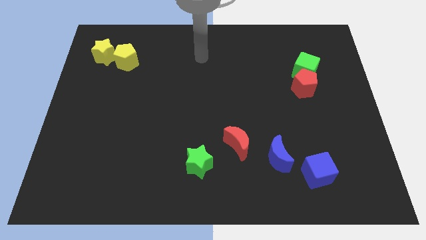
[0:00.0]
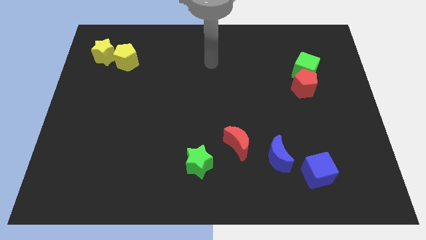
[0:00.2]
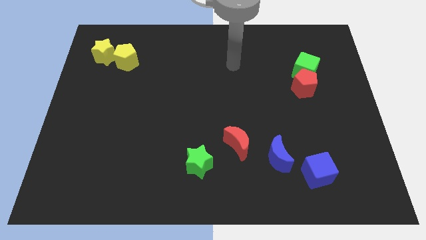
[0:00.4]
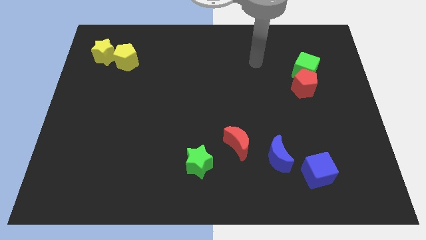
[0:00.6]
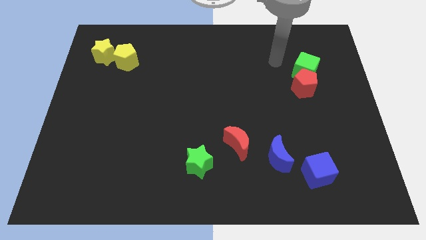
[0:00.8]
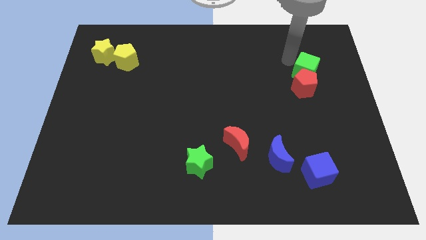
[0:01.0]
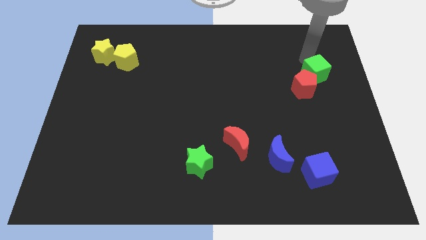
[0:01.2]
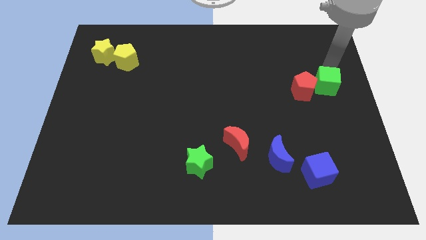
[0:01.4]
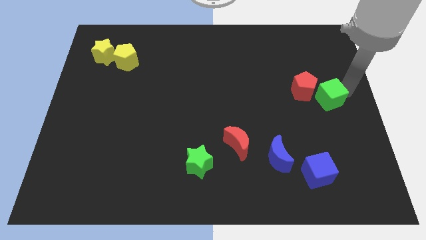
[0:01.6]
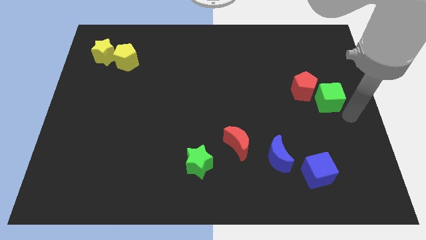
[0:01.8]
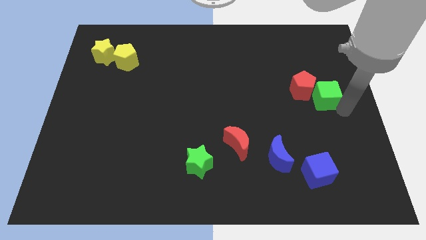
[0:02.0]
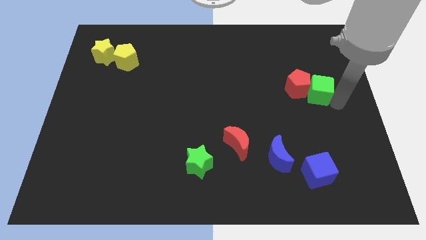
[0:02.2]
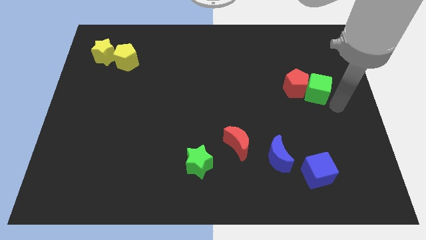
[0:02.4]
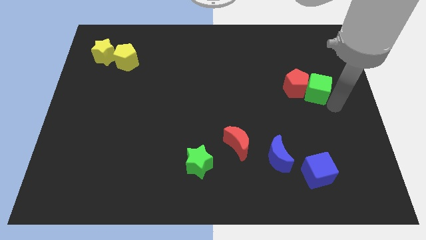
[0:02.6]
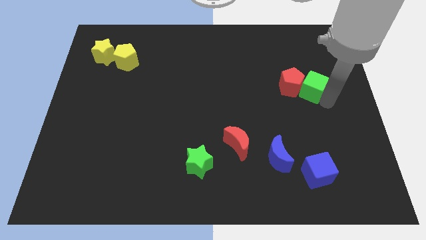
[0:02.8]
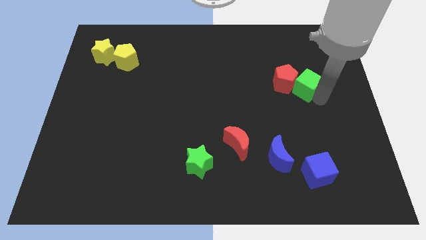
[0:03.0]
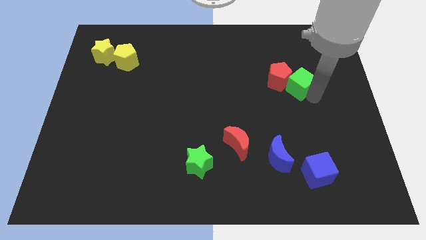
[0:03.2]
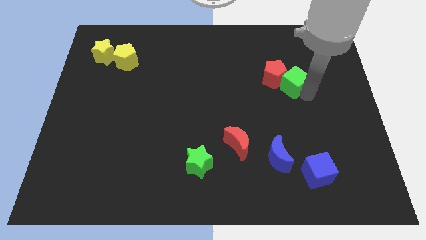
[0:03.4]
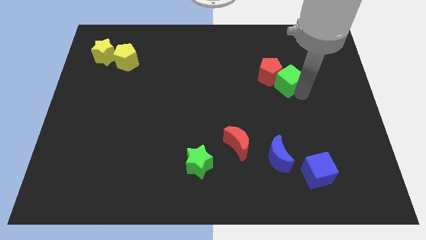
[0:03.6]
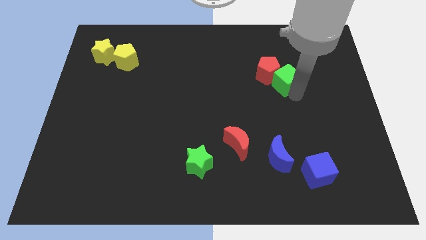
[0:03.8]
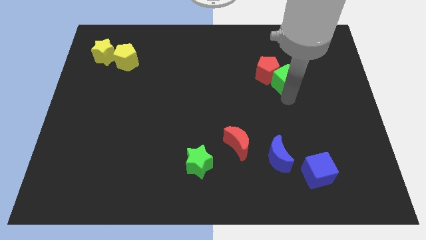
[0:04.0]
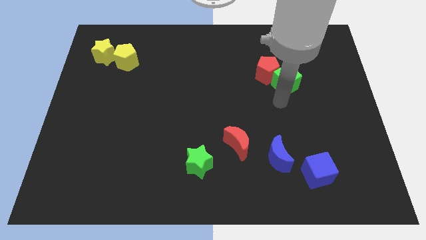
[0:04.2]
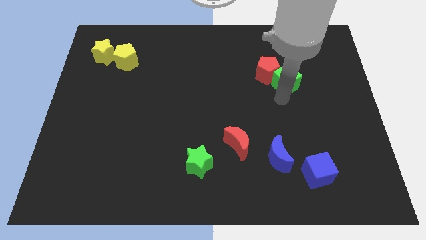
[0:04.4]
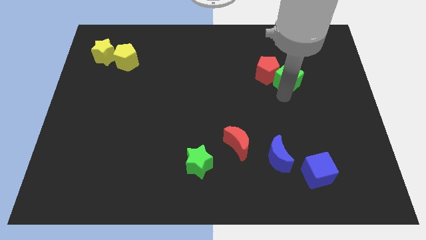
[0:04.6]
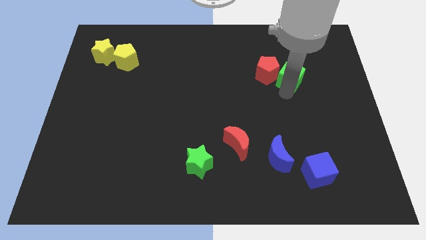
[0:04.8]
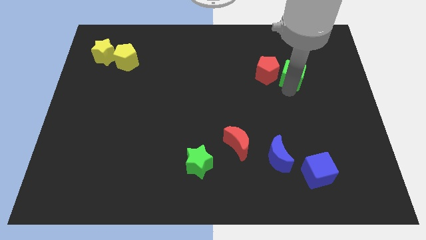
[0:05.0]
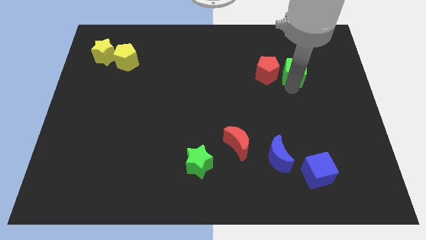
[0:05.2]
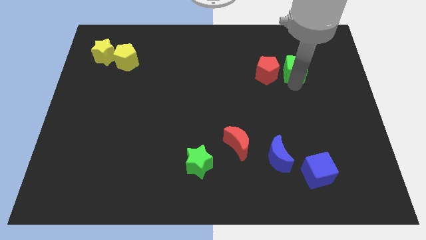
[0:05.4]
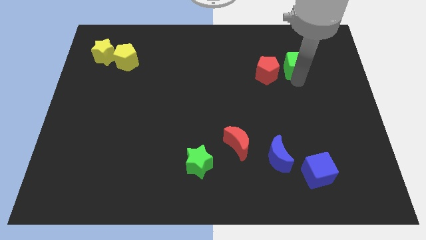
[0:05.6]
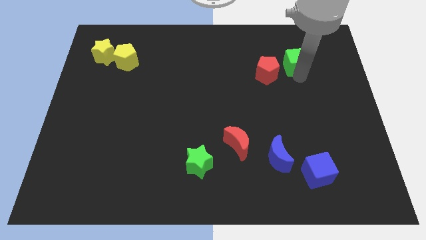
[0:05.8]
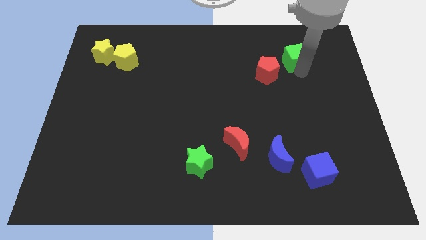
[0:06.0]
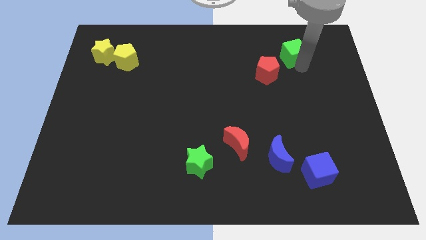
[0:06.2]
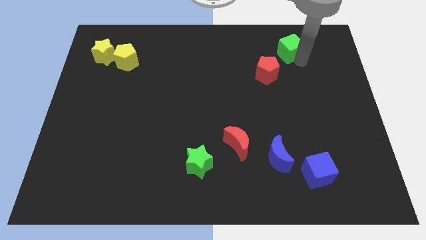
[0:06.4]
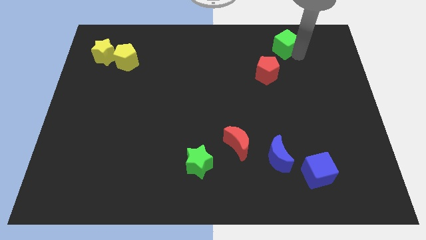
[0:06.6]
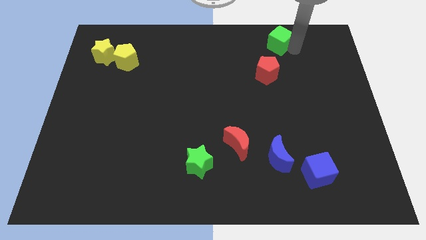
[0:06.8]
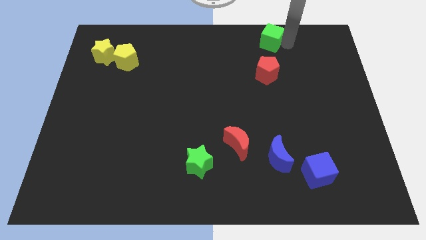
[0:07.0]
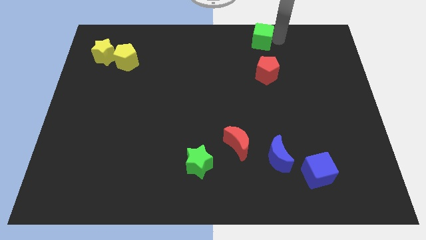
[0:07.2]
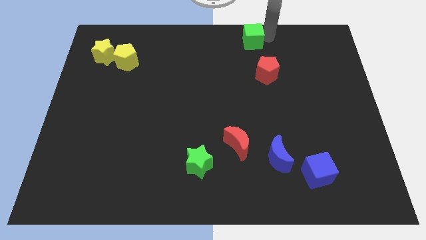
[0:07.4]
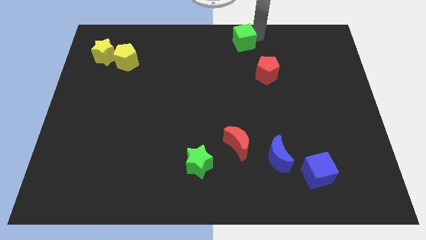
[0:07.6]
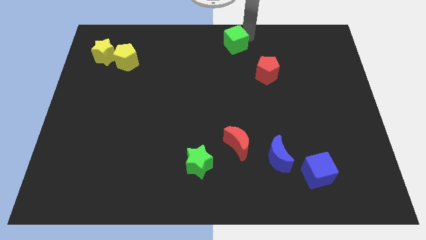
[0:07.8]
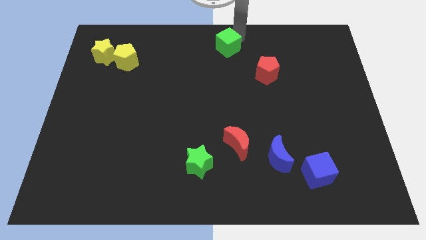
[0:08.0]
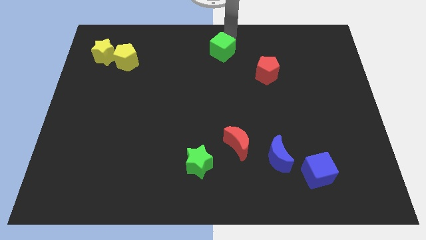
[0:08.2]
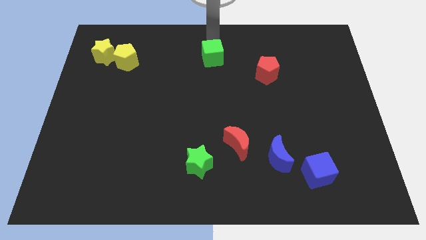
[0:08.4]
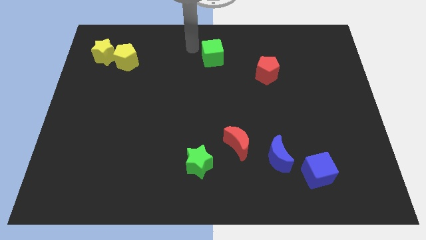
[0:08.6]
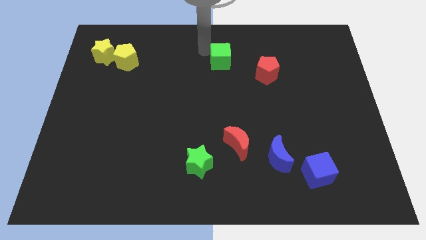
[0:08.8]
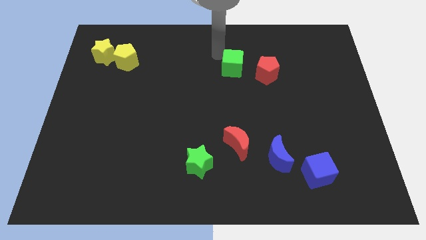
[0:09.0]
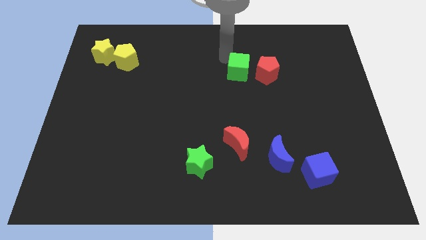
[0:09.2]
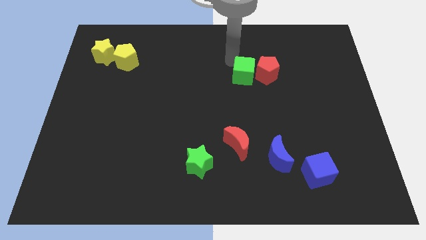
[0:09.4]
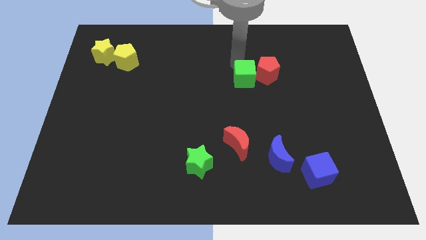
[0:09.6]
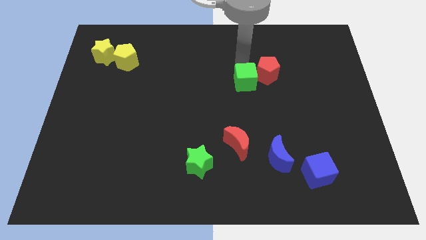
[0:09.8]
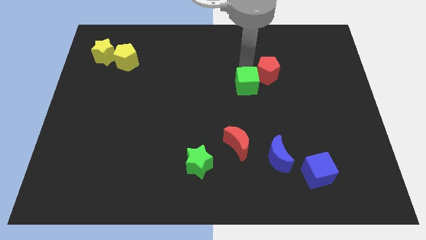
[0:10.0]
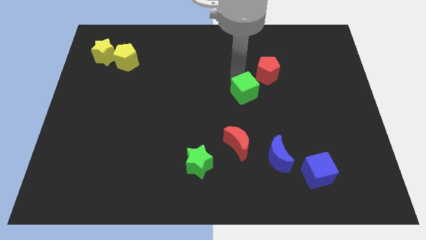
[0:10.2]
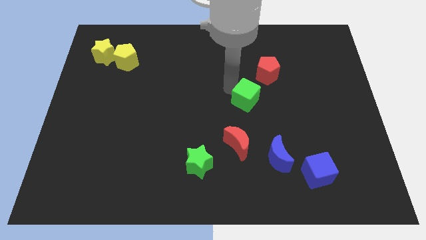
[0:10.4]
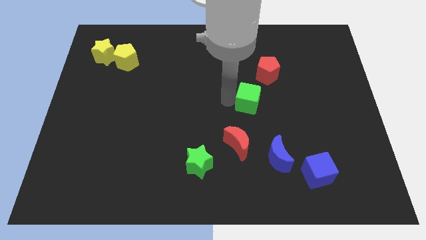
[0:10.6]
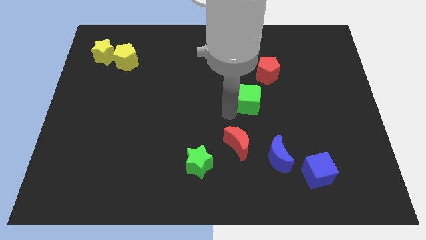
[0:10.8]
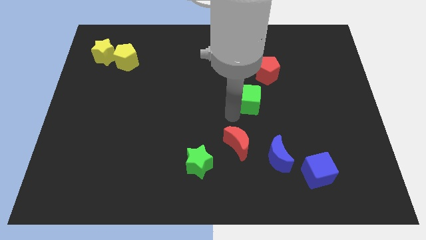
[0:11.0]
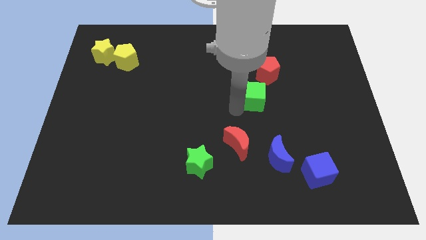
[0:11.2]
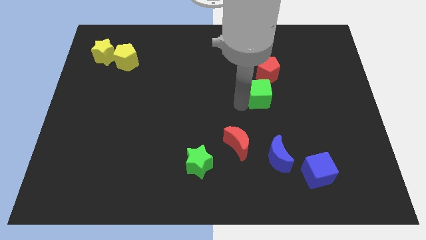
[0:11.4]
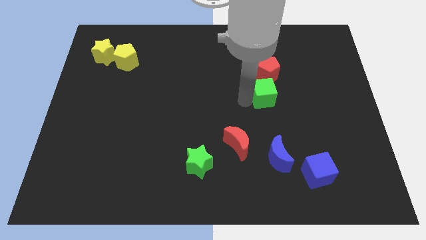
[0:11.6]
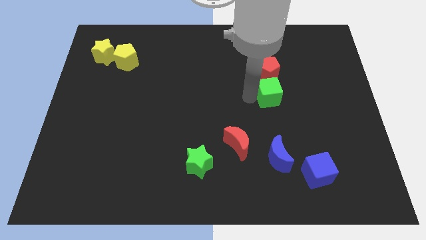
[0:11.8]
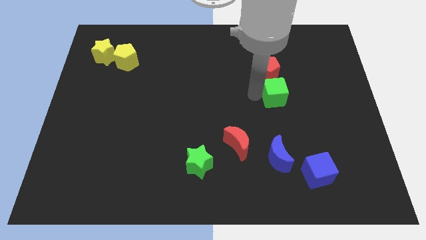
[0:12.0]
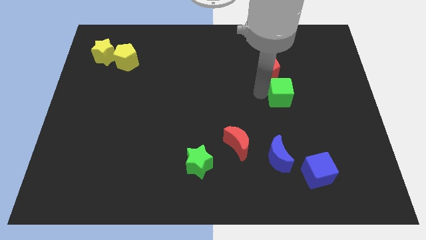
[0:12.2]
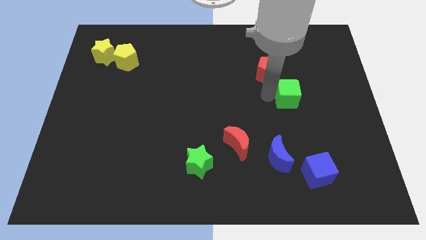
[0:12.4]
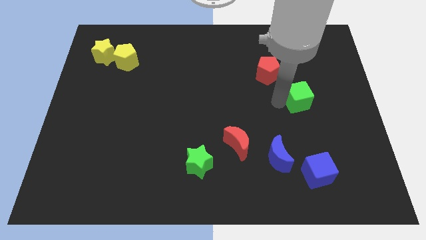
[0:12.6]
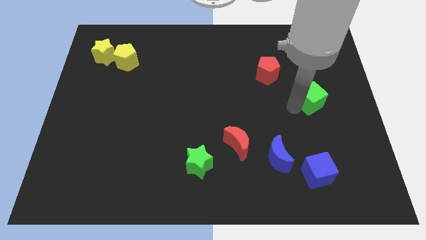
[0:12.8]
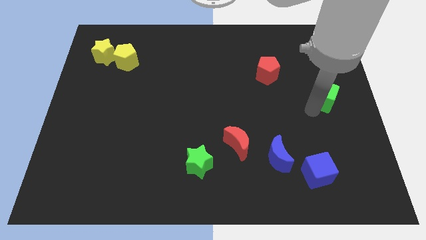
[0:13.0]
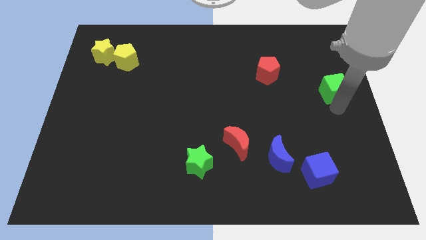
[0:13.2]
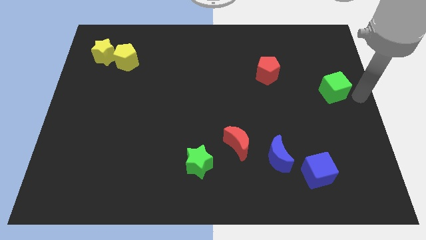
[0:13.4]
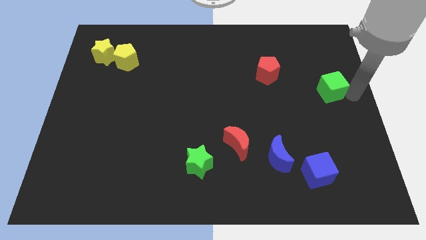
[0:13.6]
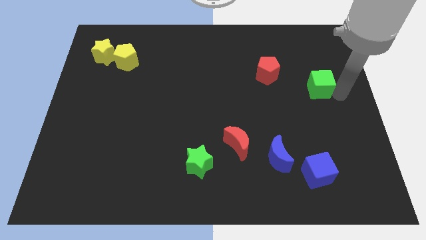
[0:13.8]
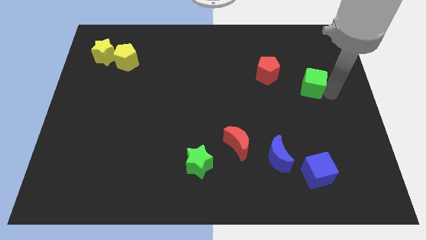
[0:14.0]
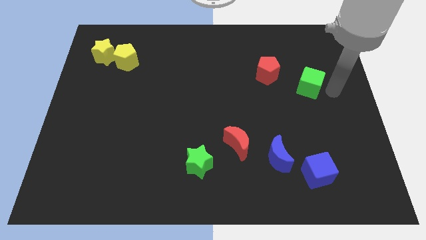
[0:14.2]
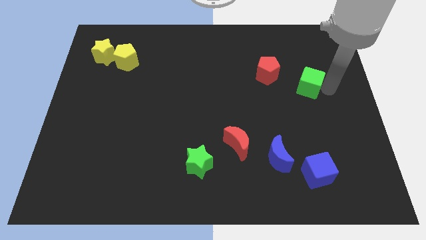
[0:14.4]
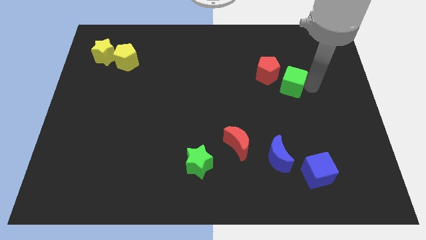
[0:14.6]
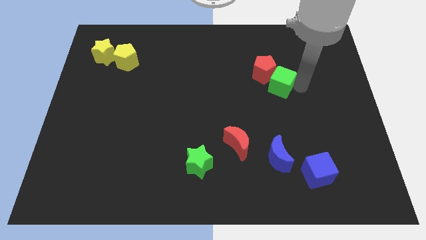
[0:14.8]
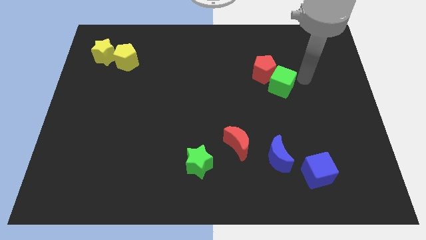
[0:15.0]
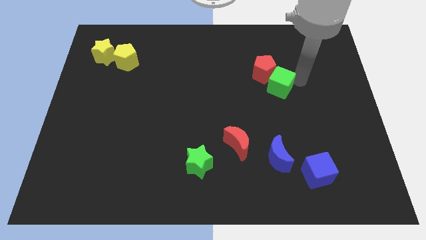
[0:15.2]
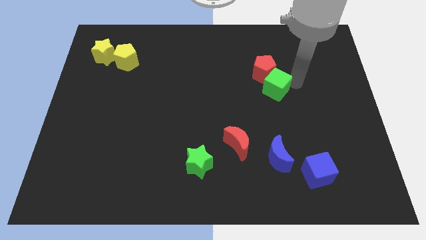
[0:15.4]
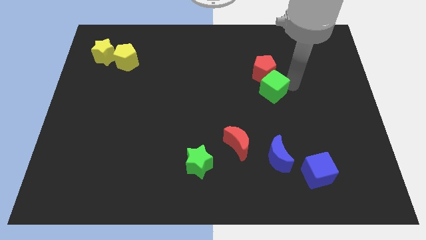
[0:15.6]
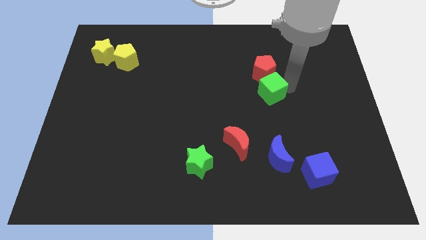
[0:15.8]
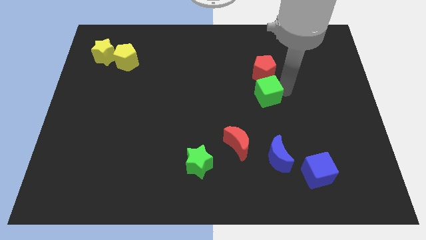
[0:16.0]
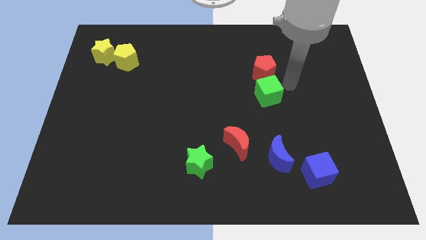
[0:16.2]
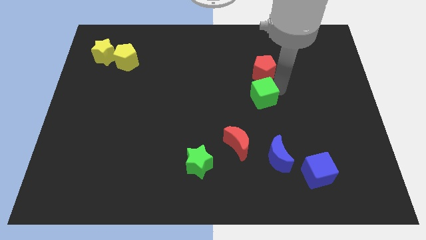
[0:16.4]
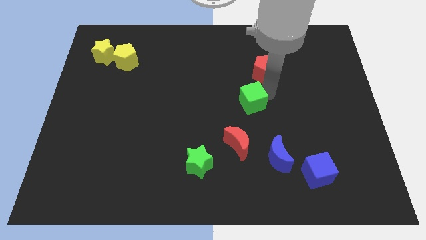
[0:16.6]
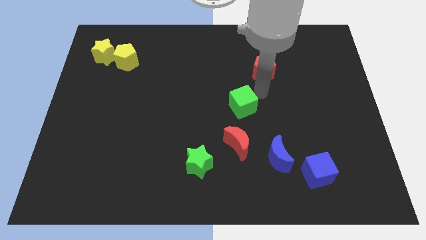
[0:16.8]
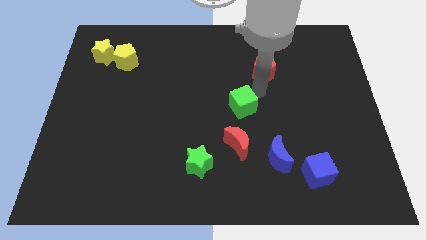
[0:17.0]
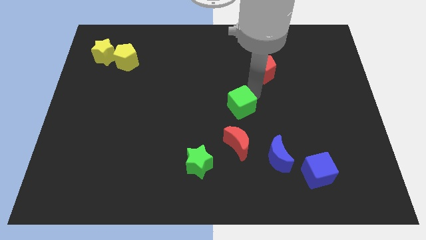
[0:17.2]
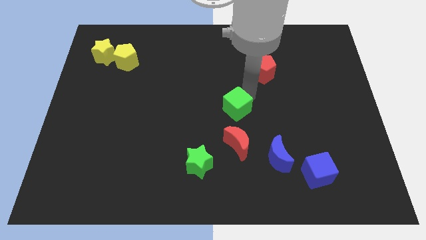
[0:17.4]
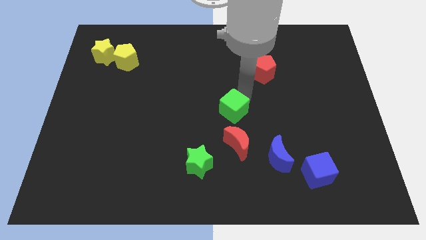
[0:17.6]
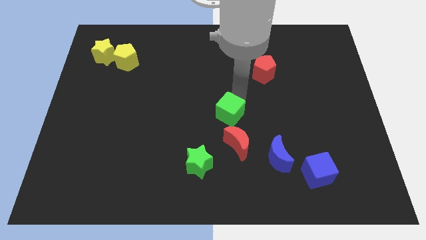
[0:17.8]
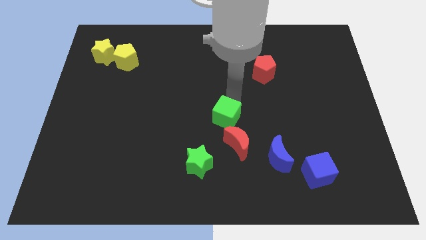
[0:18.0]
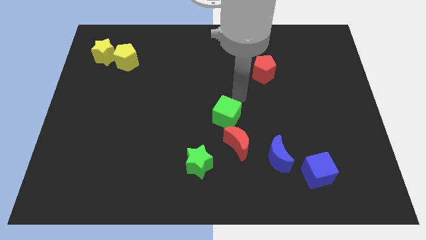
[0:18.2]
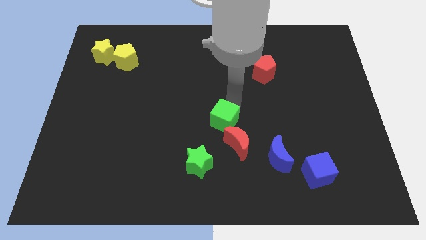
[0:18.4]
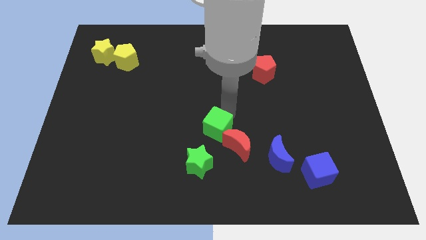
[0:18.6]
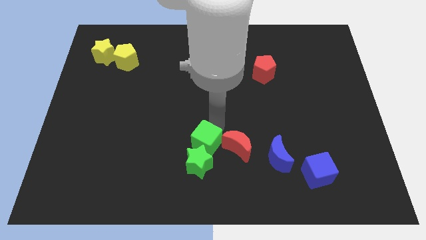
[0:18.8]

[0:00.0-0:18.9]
move the green cube next to the green star
